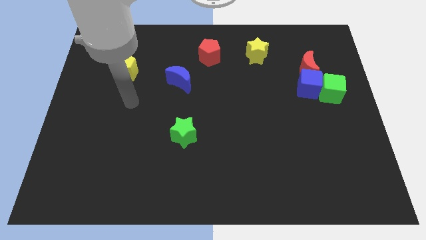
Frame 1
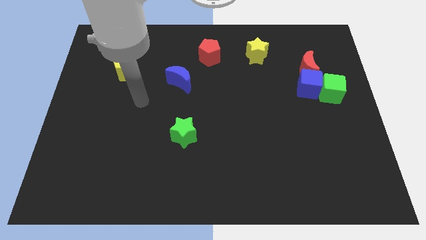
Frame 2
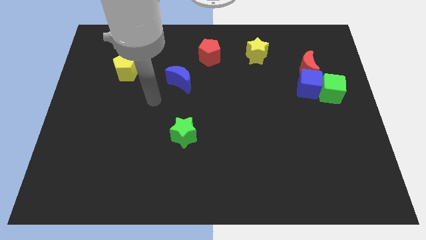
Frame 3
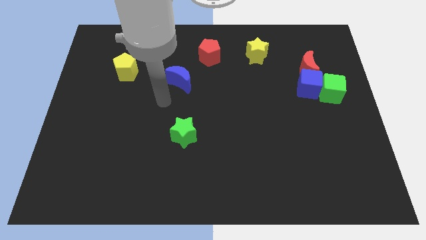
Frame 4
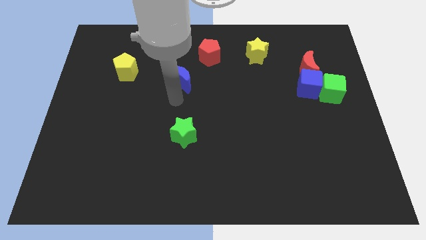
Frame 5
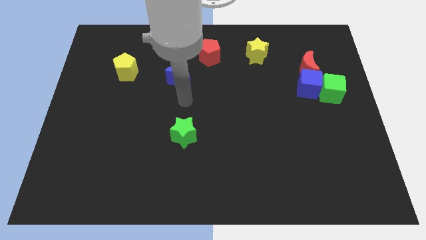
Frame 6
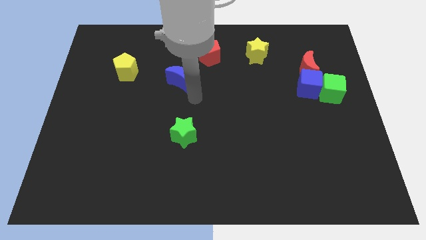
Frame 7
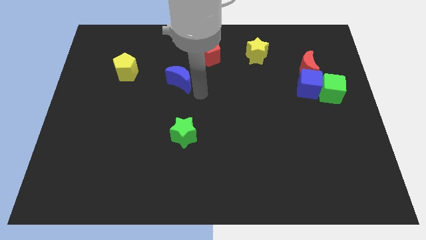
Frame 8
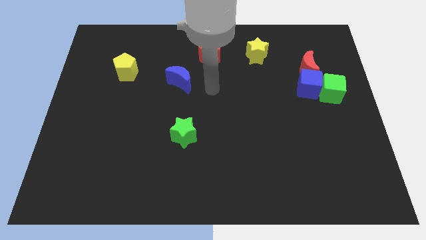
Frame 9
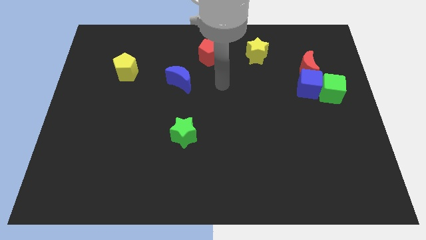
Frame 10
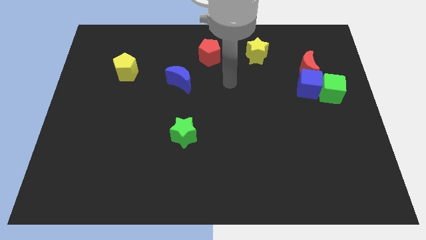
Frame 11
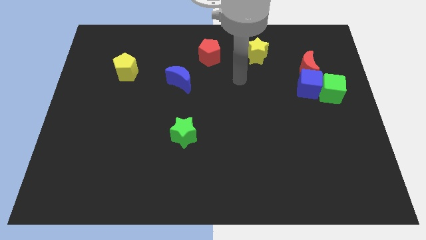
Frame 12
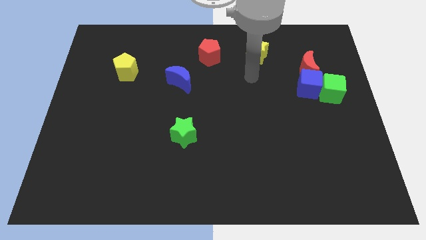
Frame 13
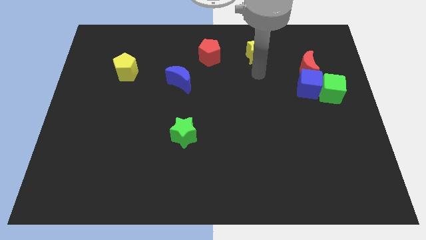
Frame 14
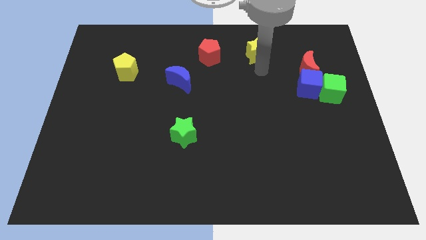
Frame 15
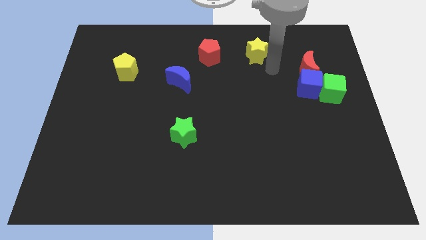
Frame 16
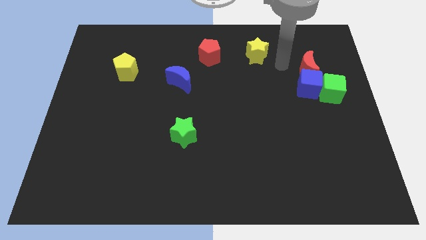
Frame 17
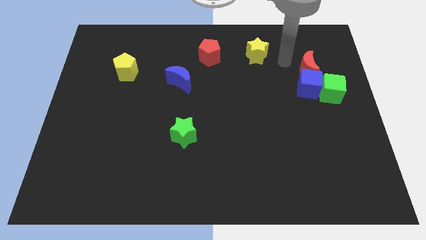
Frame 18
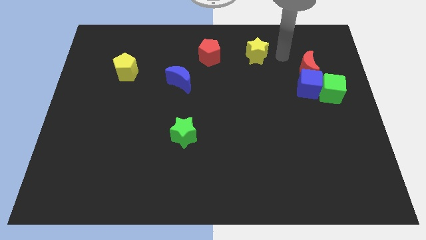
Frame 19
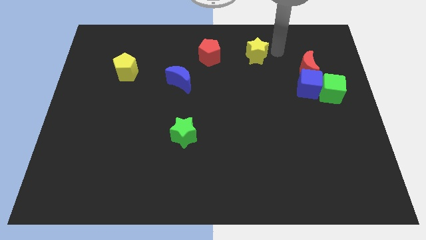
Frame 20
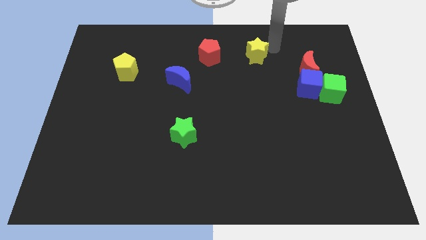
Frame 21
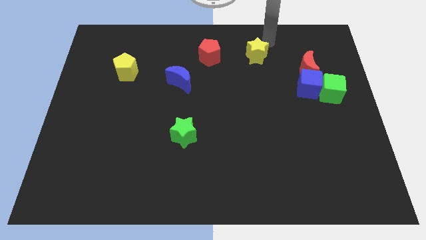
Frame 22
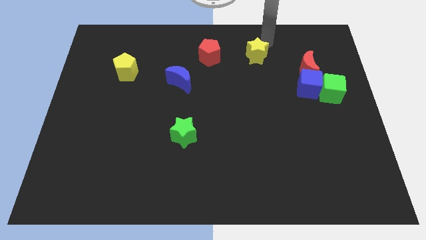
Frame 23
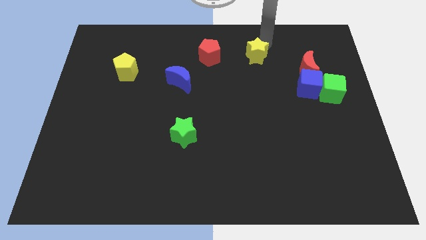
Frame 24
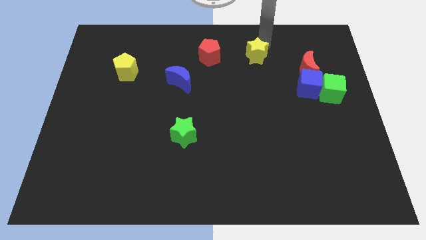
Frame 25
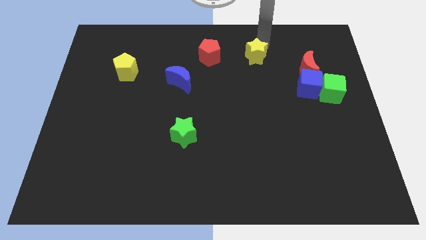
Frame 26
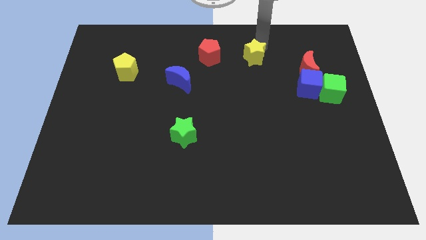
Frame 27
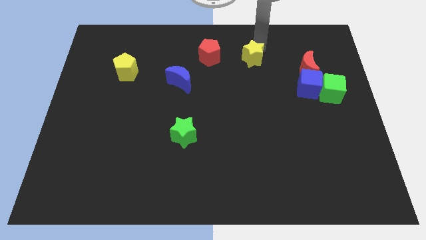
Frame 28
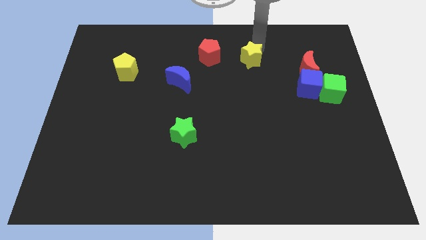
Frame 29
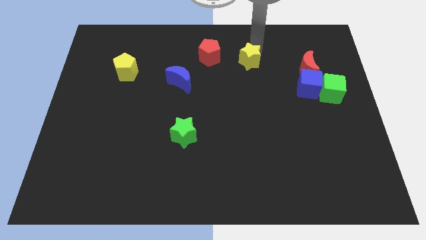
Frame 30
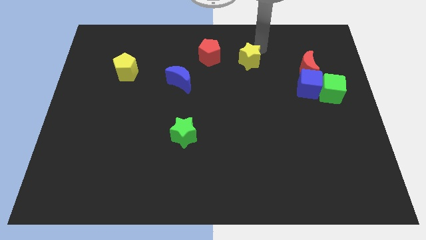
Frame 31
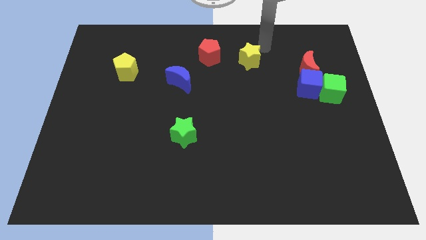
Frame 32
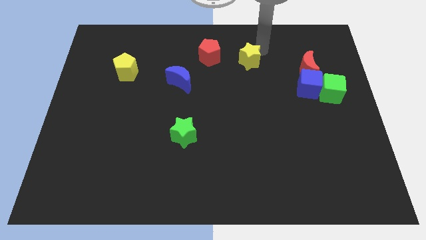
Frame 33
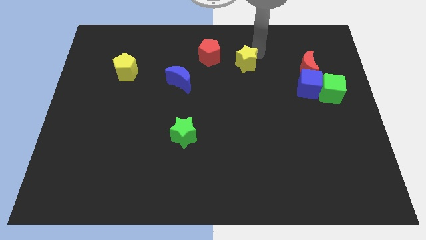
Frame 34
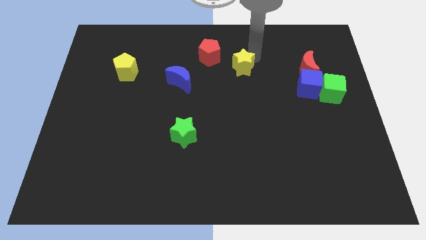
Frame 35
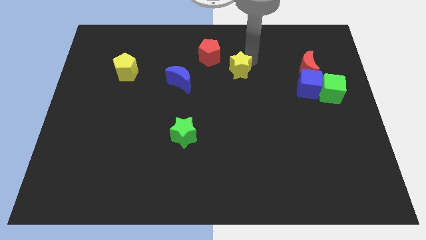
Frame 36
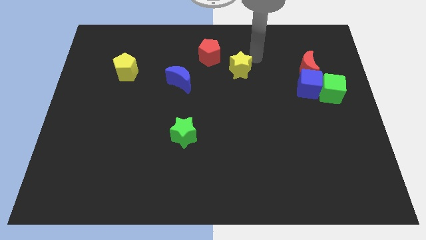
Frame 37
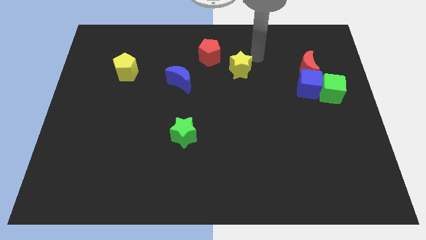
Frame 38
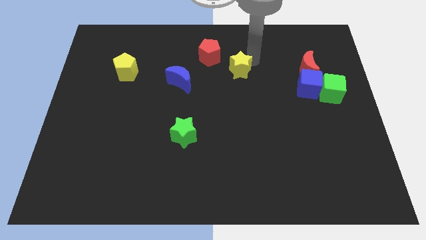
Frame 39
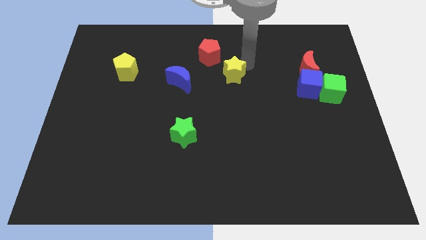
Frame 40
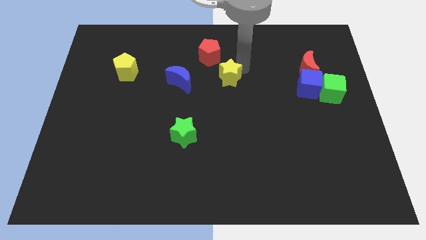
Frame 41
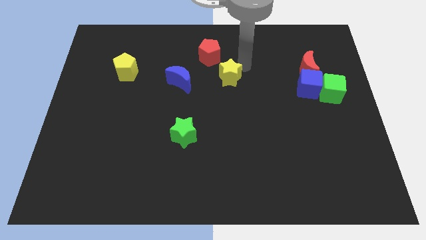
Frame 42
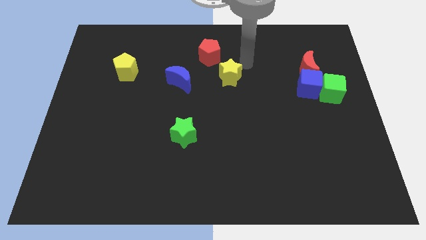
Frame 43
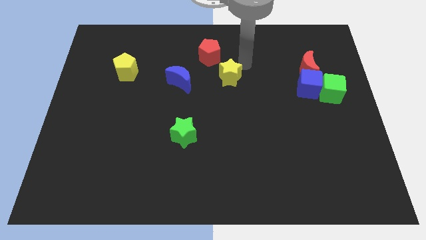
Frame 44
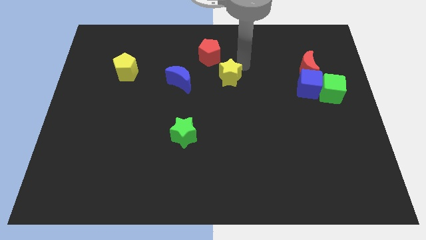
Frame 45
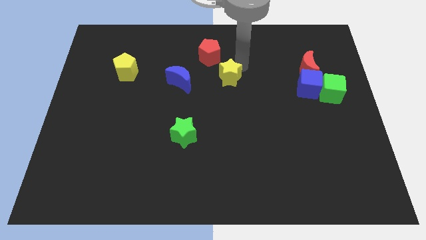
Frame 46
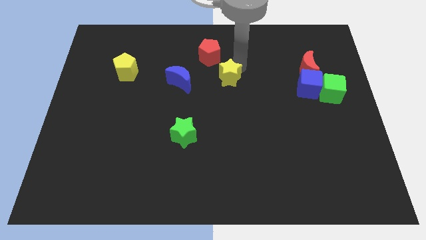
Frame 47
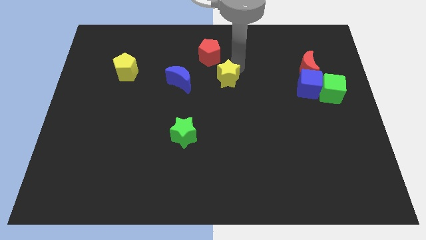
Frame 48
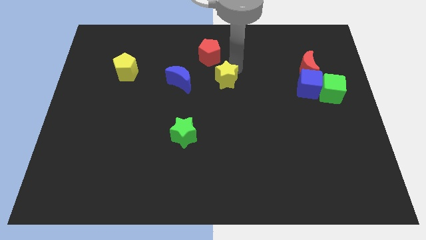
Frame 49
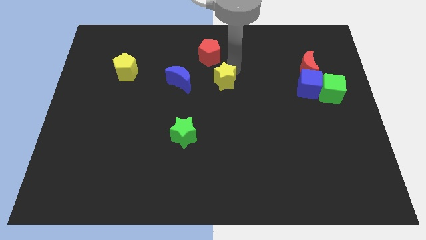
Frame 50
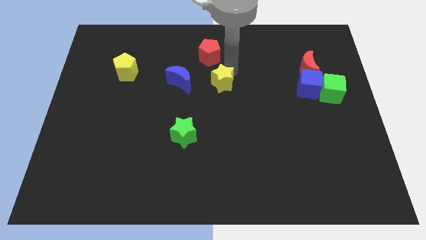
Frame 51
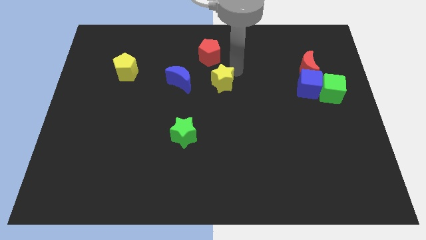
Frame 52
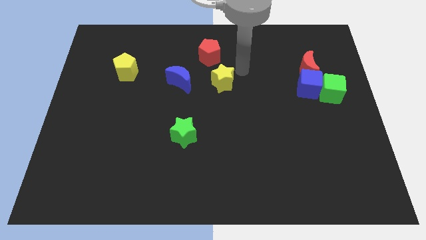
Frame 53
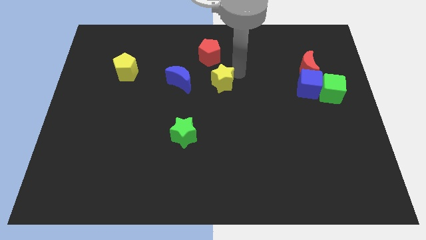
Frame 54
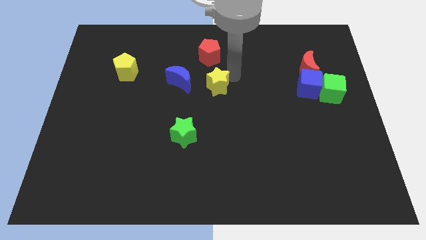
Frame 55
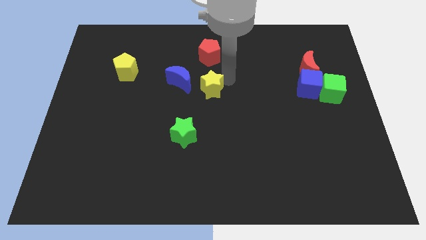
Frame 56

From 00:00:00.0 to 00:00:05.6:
slide the yellow star to the bottom right of the blue moon

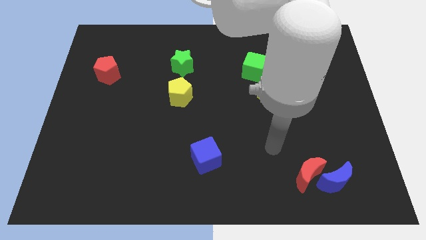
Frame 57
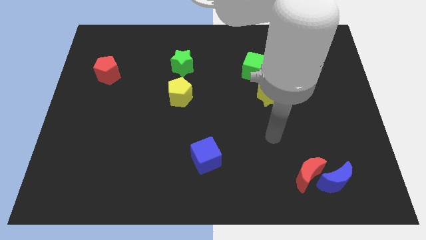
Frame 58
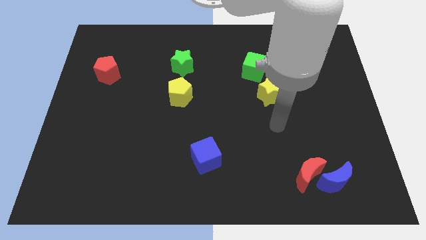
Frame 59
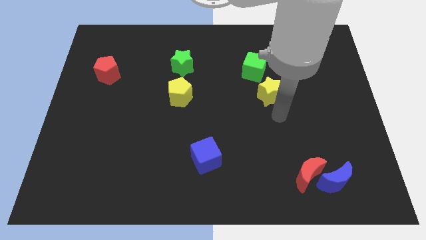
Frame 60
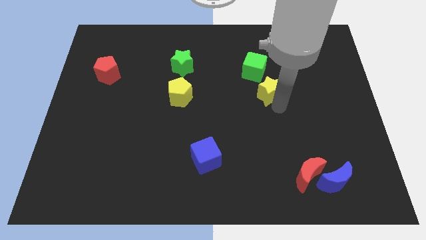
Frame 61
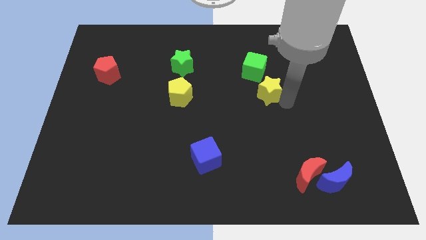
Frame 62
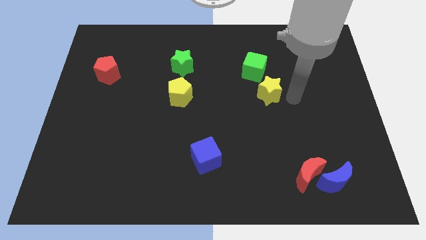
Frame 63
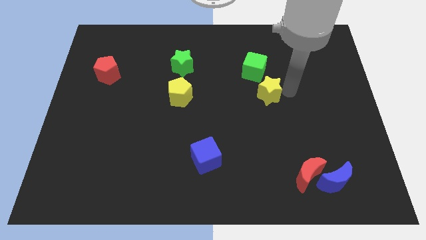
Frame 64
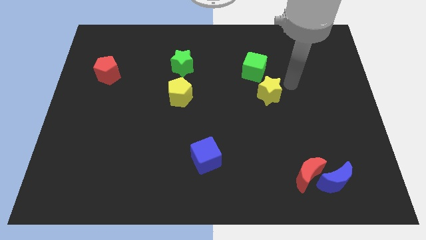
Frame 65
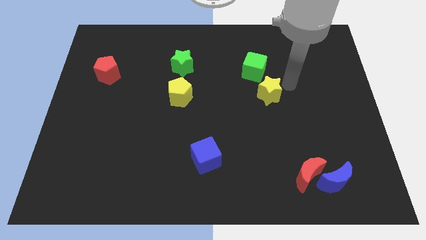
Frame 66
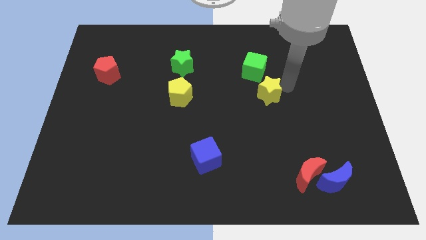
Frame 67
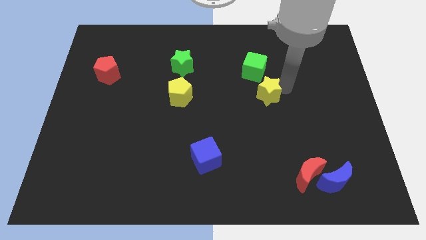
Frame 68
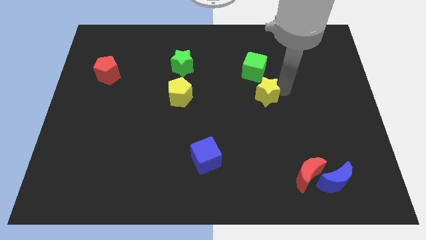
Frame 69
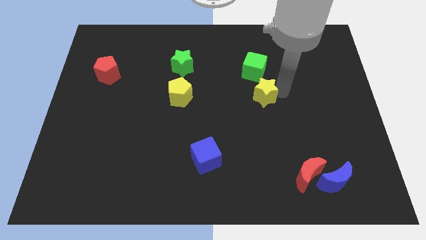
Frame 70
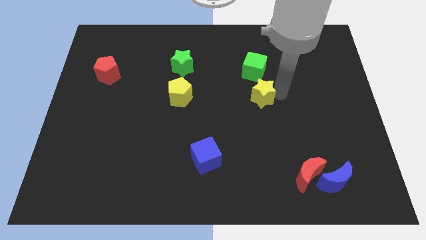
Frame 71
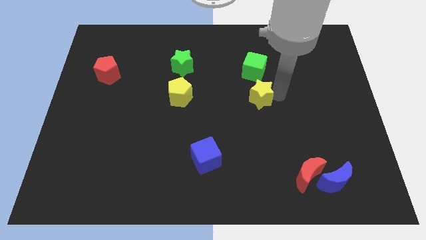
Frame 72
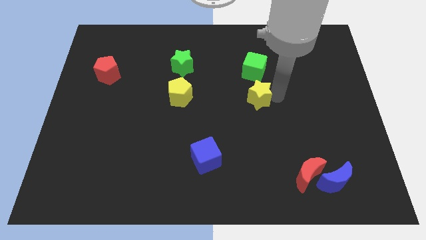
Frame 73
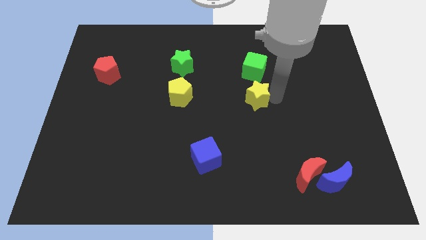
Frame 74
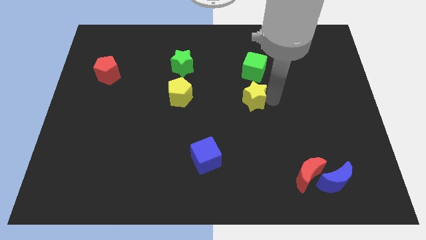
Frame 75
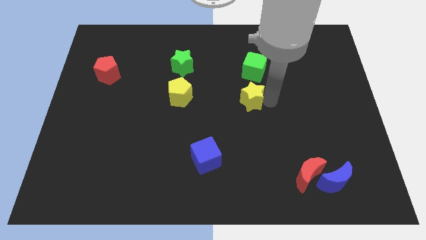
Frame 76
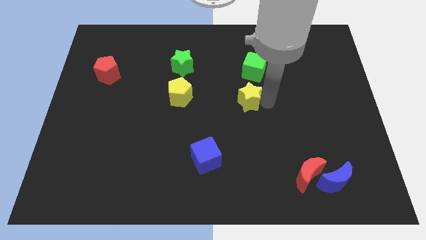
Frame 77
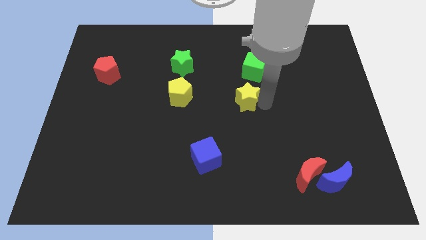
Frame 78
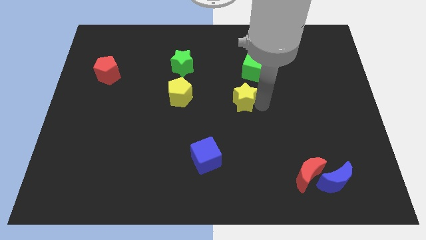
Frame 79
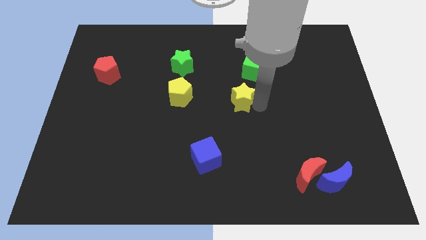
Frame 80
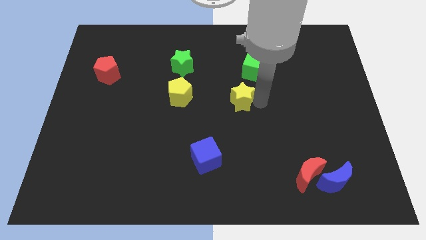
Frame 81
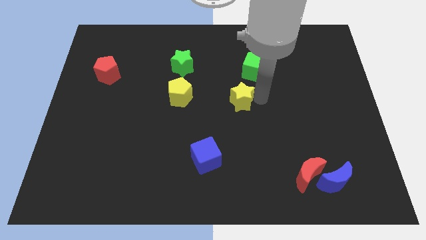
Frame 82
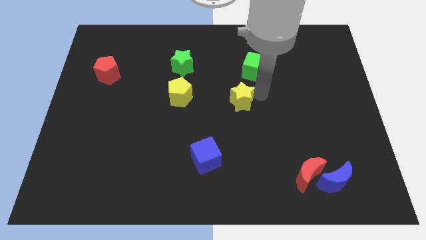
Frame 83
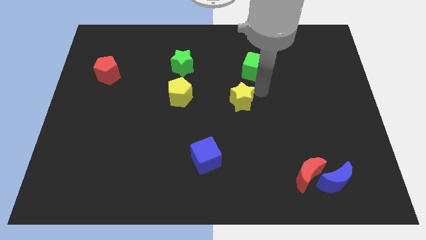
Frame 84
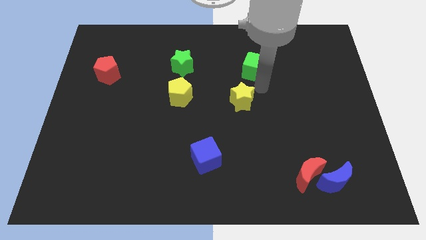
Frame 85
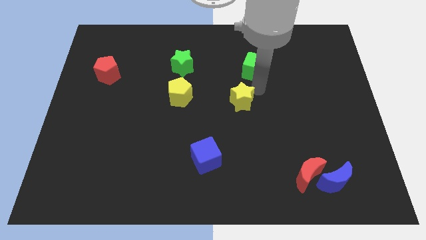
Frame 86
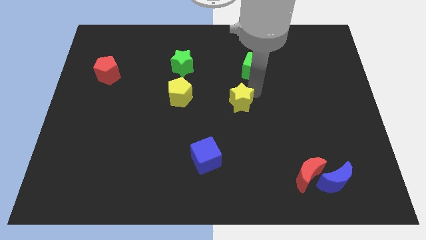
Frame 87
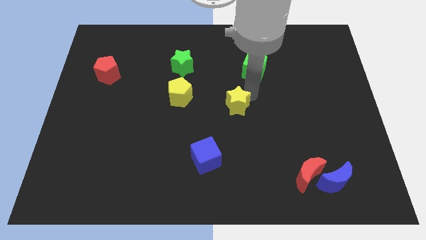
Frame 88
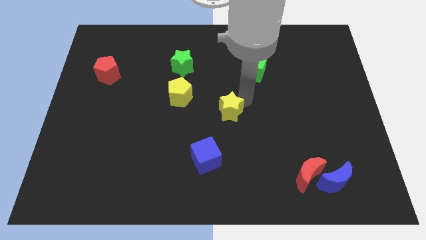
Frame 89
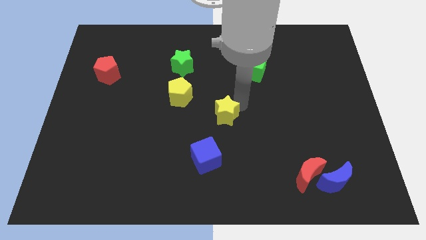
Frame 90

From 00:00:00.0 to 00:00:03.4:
put the yellow star above the blue cube
